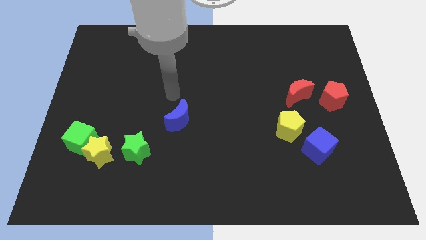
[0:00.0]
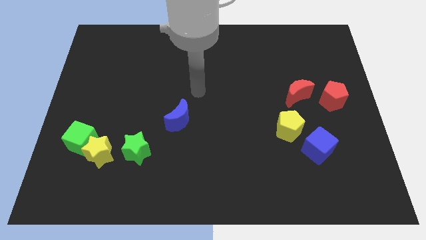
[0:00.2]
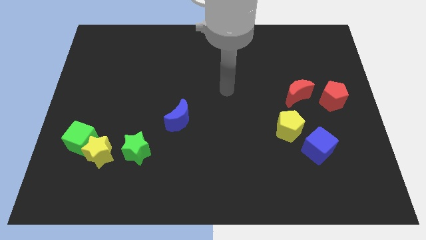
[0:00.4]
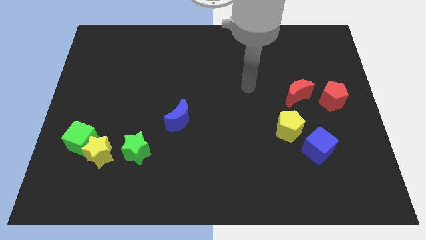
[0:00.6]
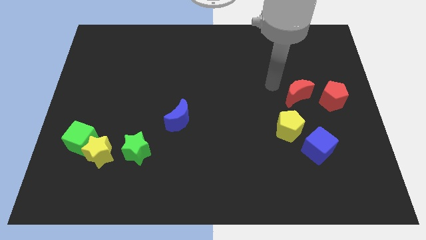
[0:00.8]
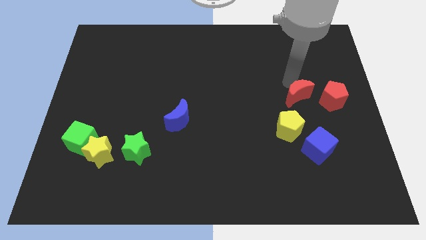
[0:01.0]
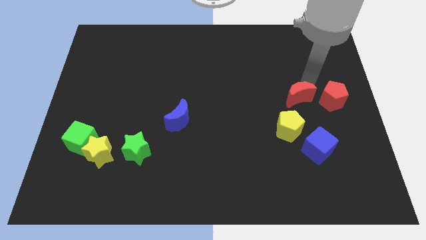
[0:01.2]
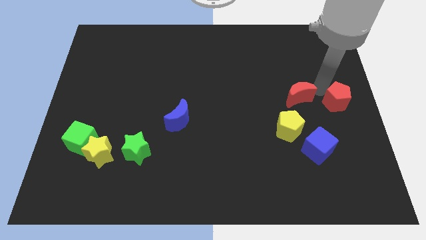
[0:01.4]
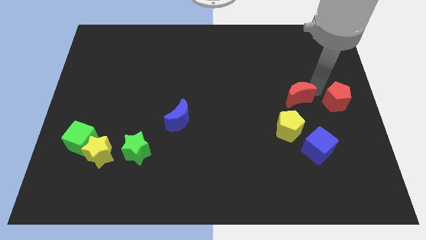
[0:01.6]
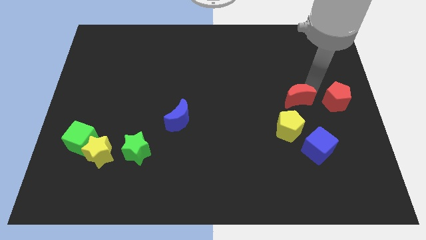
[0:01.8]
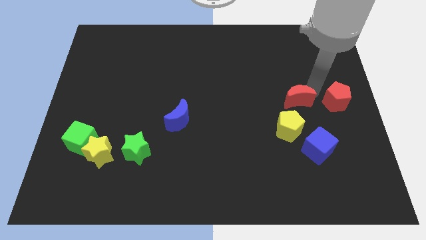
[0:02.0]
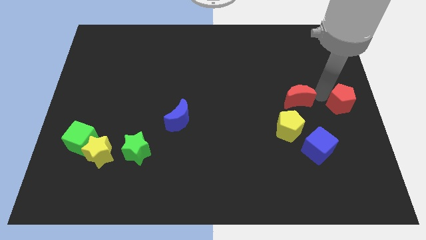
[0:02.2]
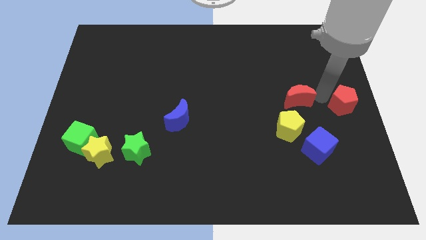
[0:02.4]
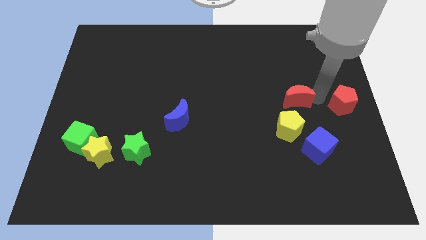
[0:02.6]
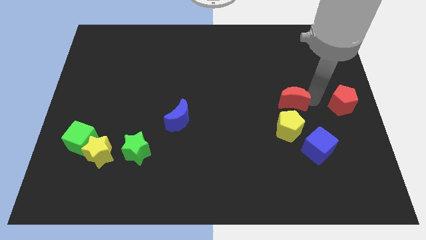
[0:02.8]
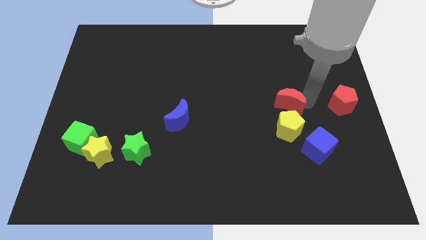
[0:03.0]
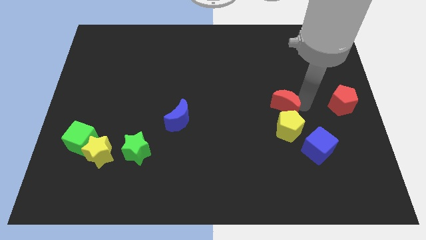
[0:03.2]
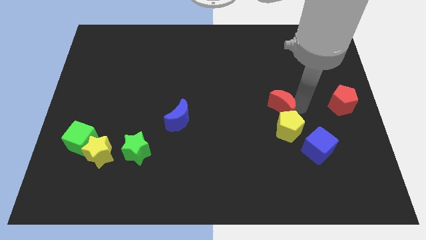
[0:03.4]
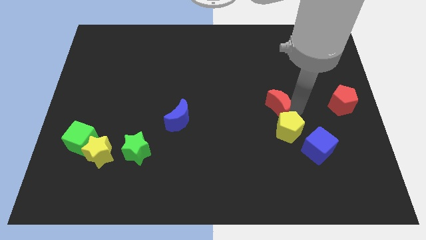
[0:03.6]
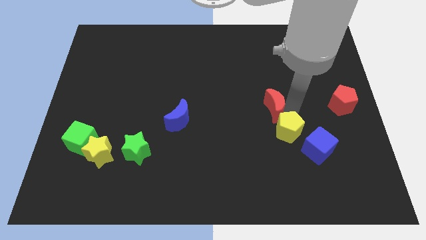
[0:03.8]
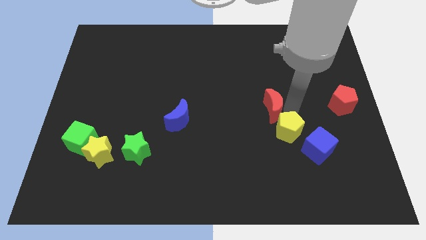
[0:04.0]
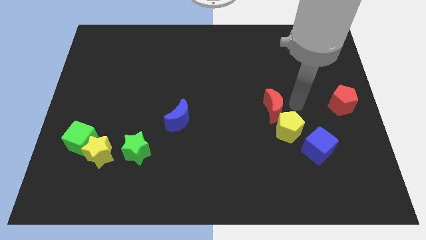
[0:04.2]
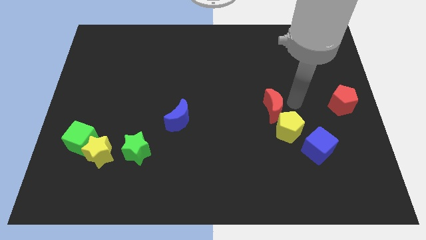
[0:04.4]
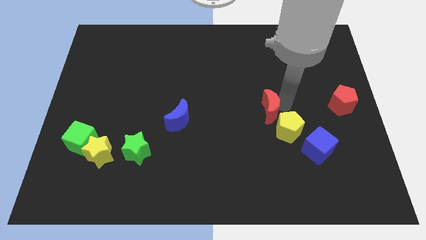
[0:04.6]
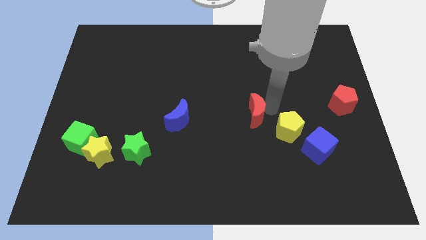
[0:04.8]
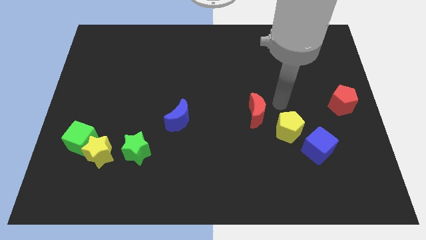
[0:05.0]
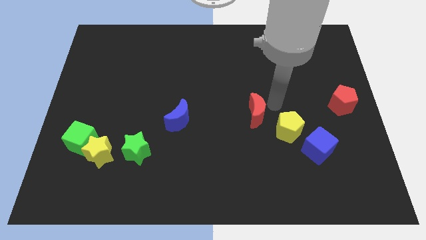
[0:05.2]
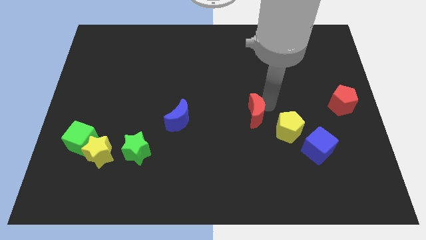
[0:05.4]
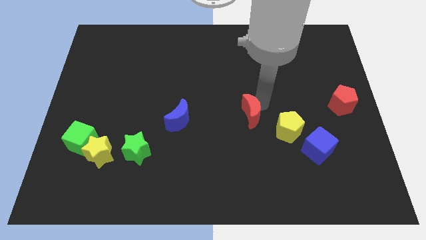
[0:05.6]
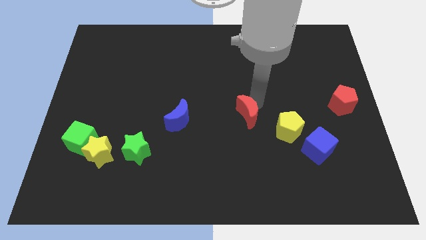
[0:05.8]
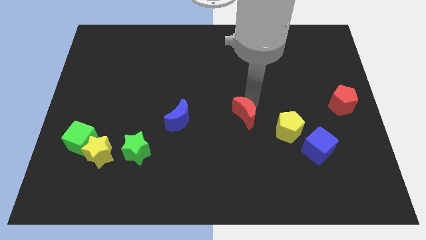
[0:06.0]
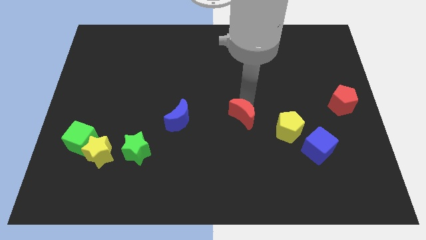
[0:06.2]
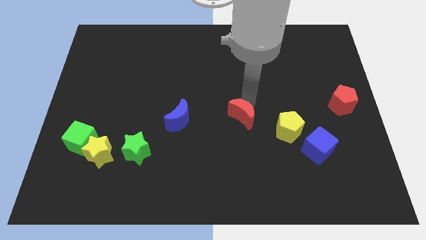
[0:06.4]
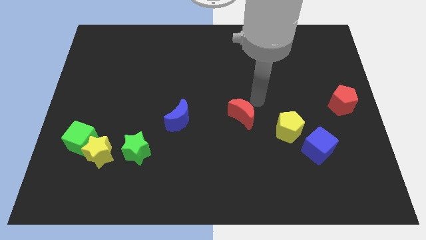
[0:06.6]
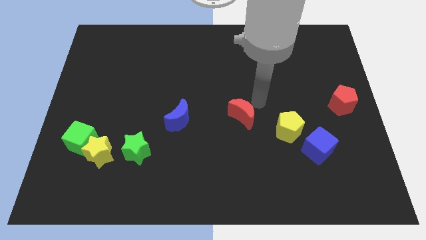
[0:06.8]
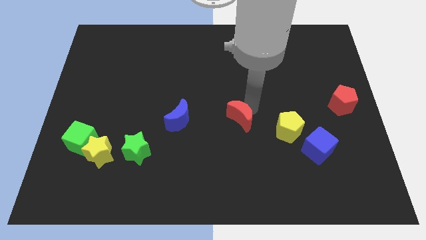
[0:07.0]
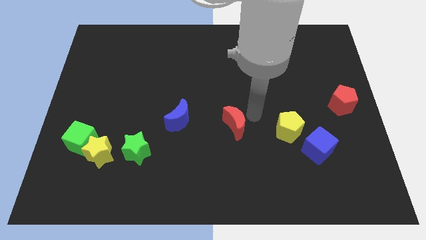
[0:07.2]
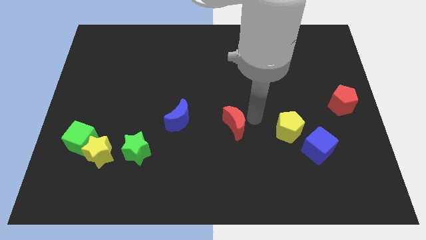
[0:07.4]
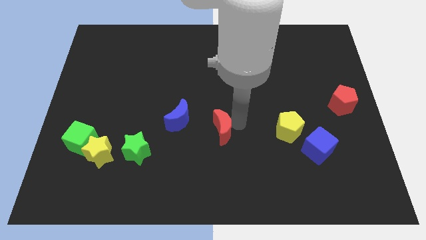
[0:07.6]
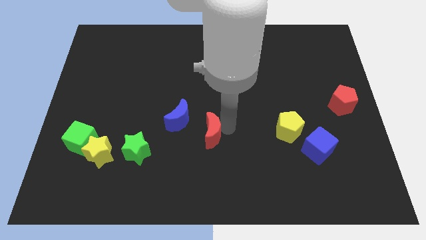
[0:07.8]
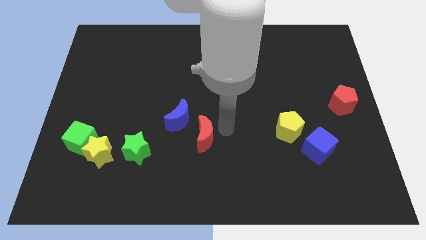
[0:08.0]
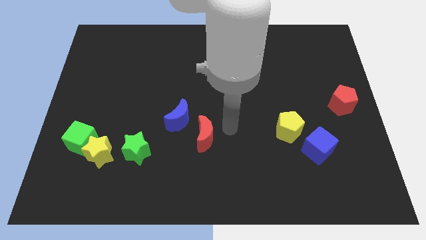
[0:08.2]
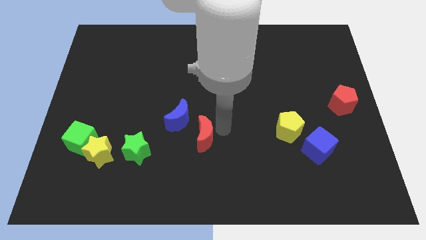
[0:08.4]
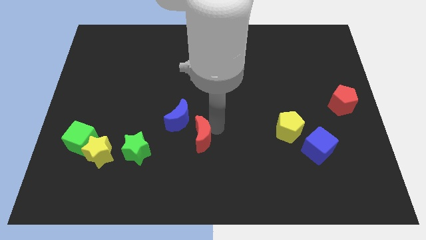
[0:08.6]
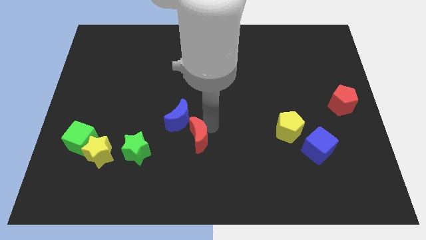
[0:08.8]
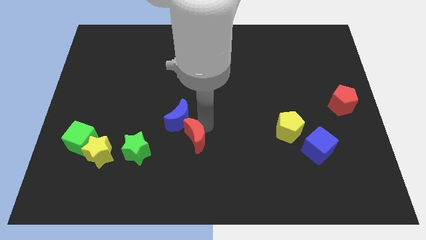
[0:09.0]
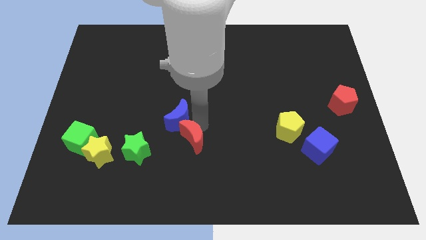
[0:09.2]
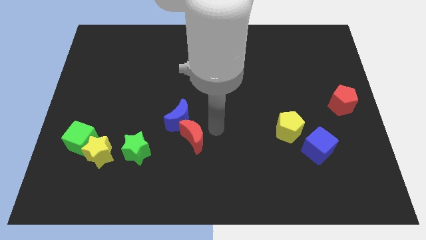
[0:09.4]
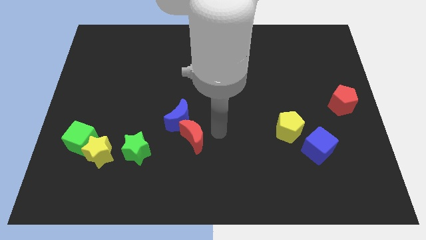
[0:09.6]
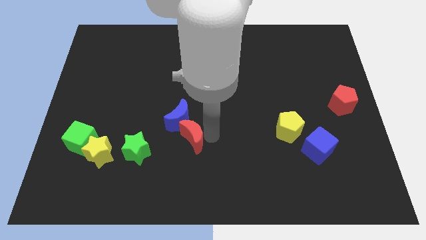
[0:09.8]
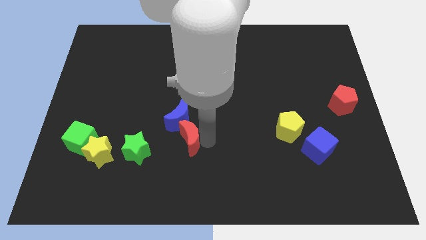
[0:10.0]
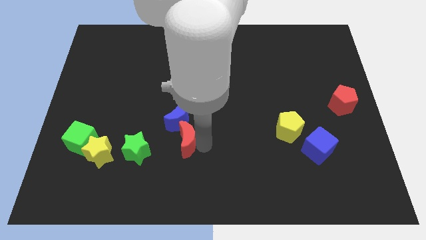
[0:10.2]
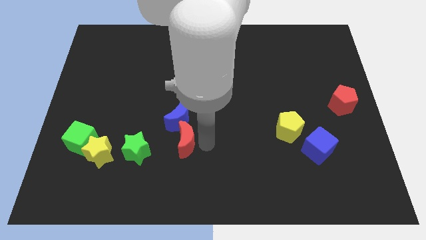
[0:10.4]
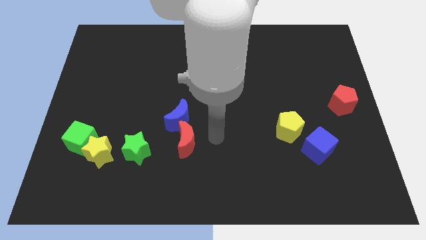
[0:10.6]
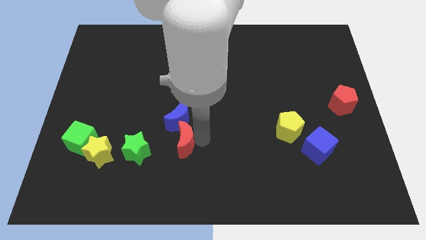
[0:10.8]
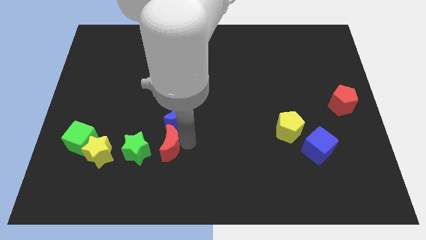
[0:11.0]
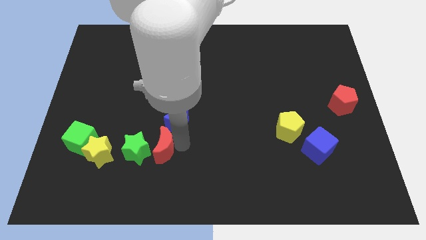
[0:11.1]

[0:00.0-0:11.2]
slide the red moon close to the green star
